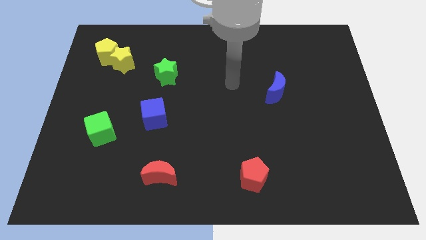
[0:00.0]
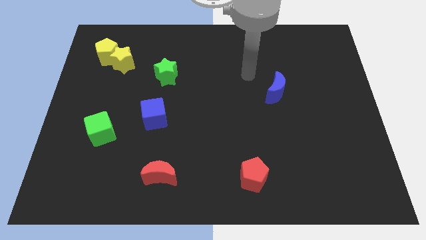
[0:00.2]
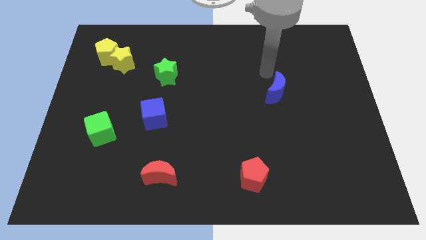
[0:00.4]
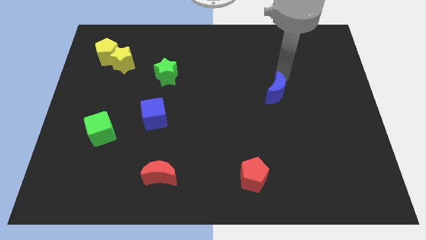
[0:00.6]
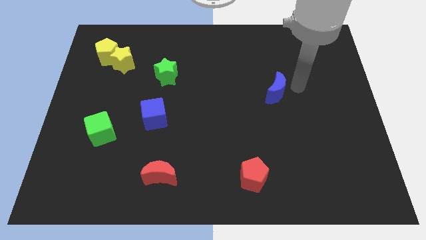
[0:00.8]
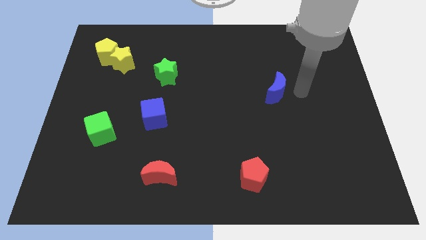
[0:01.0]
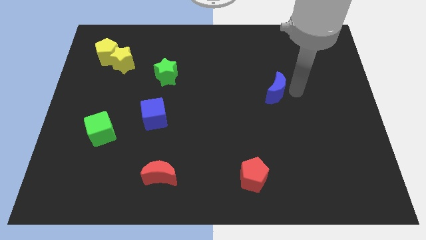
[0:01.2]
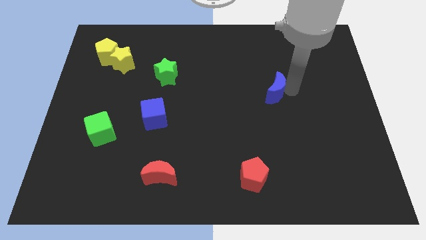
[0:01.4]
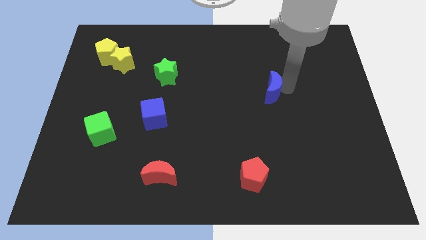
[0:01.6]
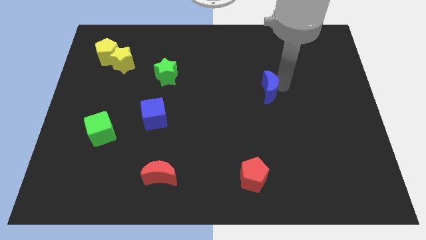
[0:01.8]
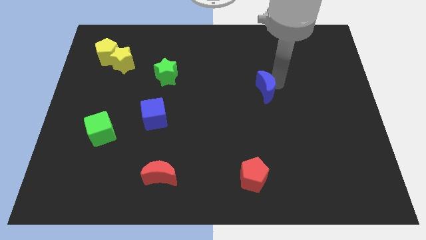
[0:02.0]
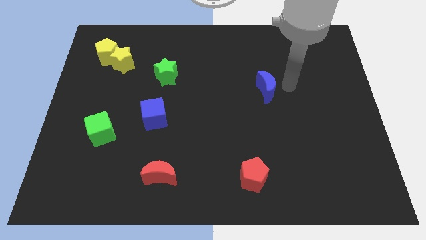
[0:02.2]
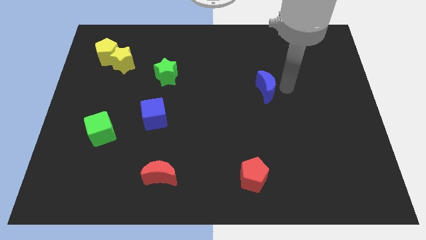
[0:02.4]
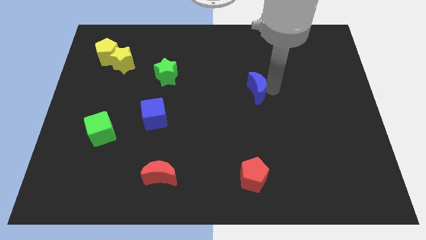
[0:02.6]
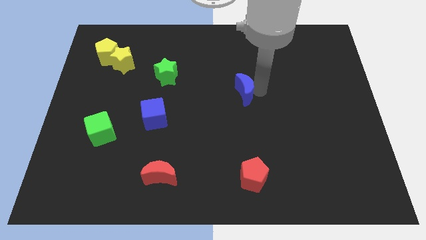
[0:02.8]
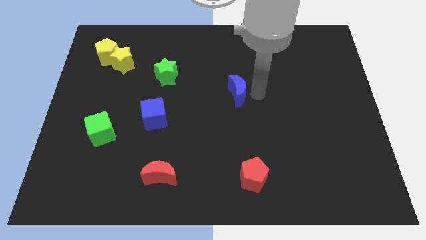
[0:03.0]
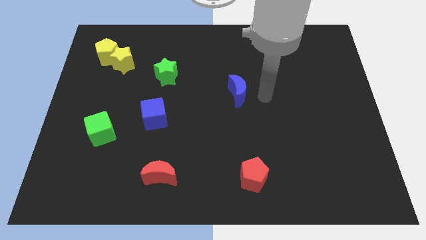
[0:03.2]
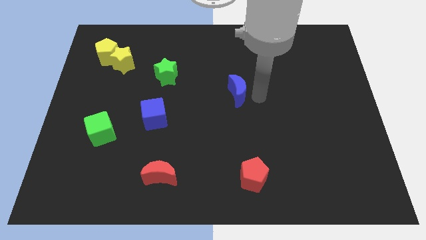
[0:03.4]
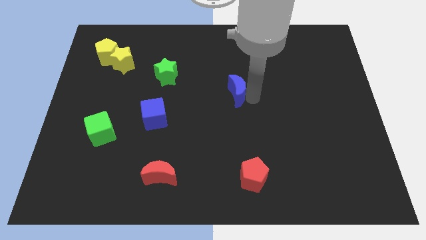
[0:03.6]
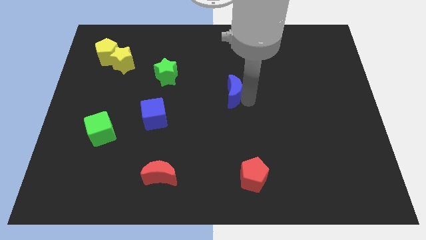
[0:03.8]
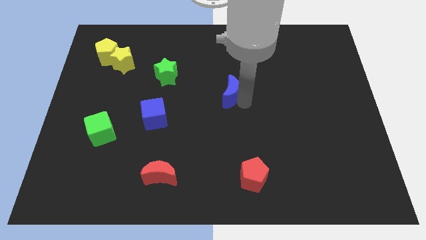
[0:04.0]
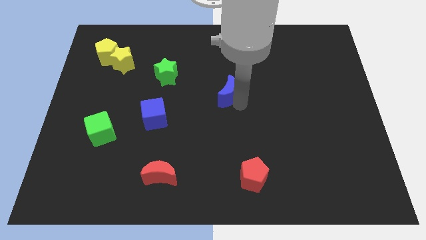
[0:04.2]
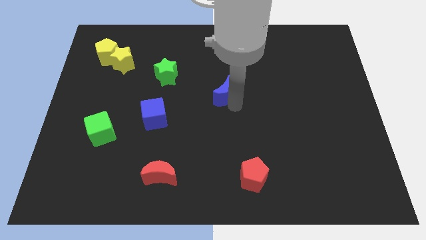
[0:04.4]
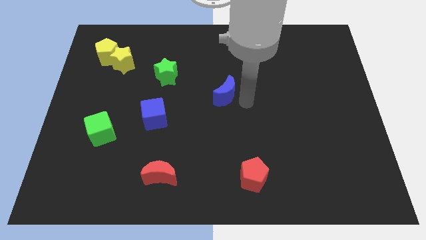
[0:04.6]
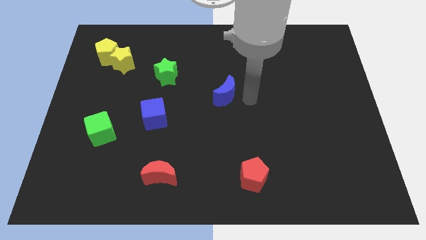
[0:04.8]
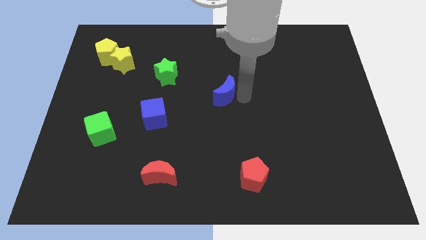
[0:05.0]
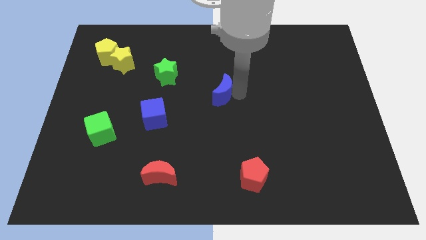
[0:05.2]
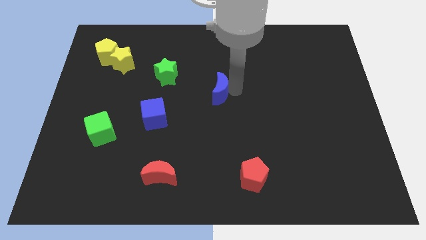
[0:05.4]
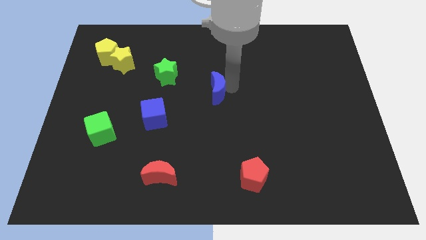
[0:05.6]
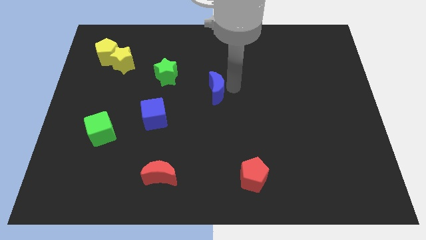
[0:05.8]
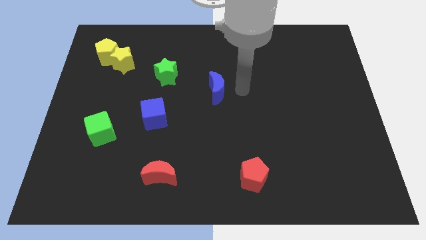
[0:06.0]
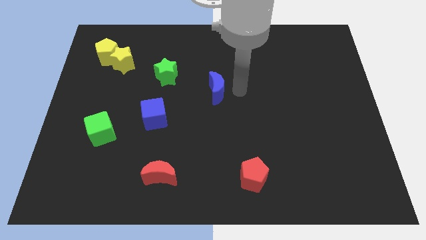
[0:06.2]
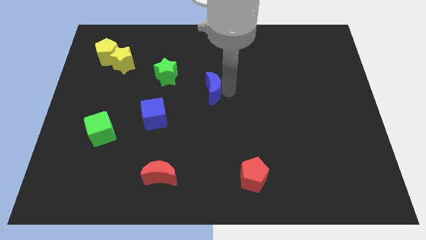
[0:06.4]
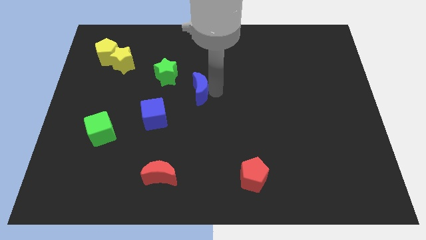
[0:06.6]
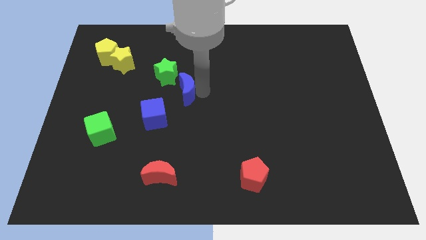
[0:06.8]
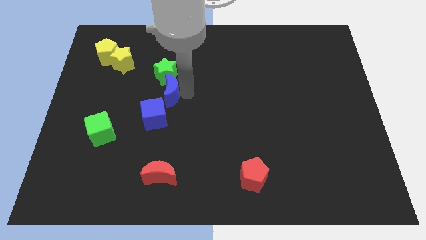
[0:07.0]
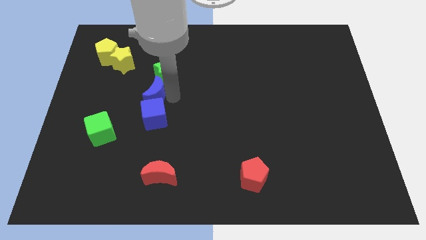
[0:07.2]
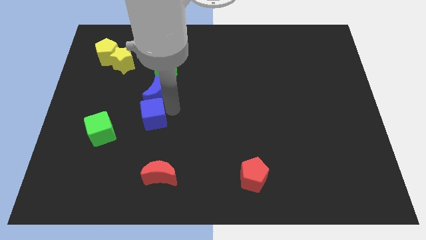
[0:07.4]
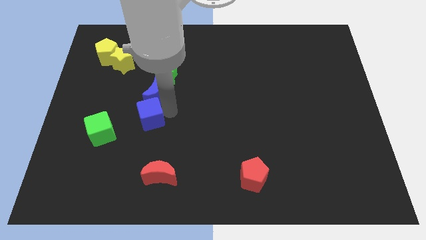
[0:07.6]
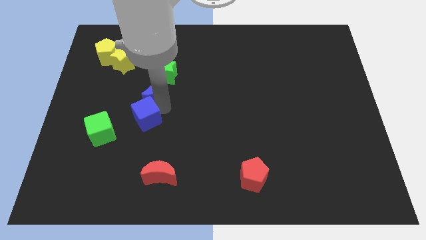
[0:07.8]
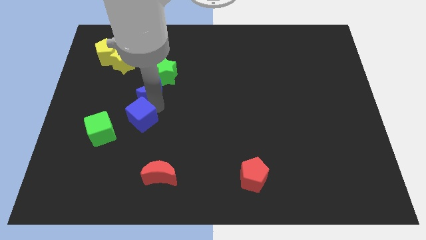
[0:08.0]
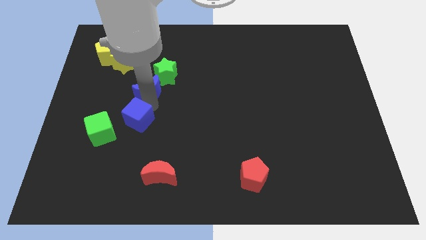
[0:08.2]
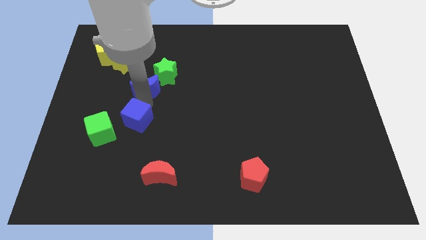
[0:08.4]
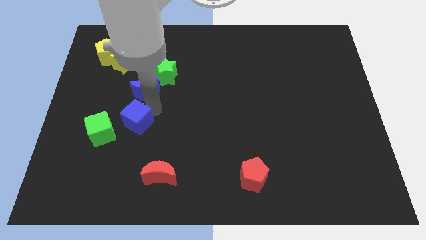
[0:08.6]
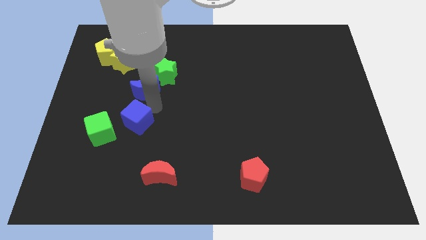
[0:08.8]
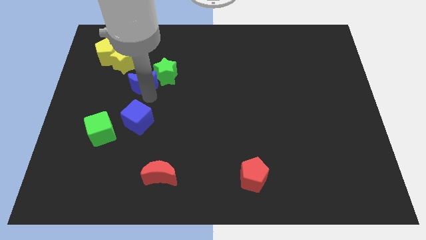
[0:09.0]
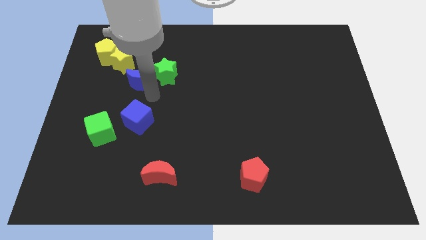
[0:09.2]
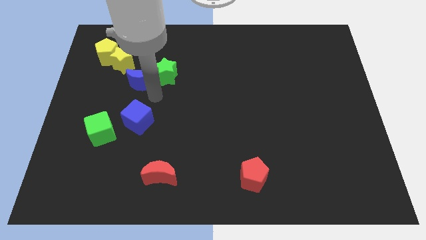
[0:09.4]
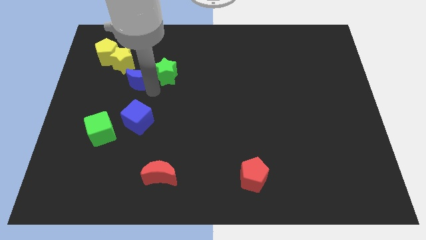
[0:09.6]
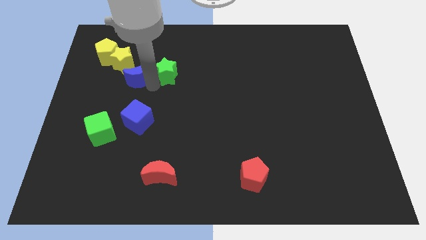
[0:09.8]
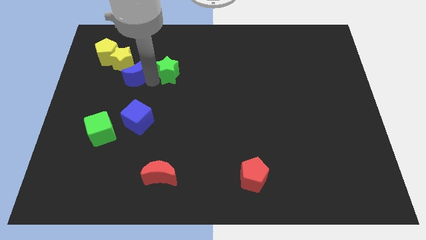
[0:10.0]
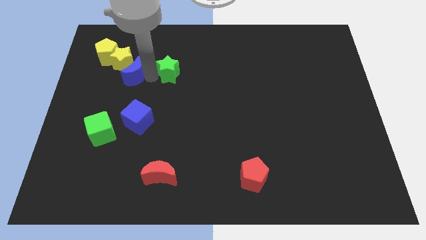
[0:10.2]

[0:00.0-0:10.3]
move the blue moon close to the yellow star

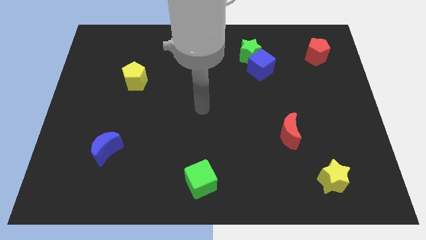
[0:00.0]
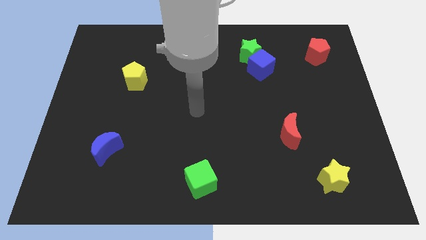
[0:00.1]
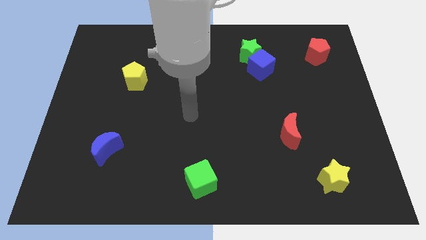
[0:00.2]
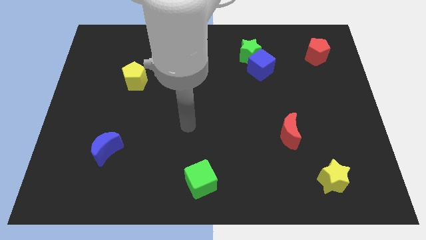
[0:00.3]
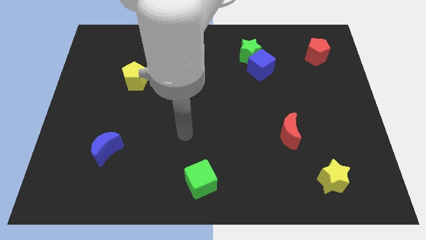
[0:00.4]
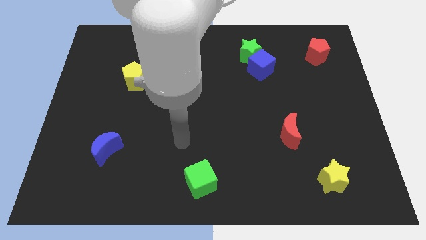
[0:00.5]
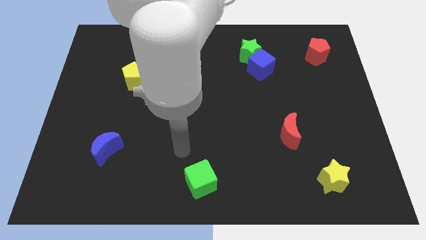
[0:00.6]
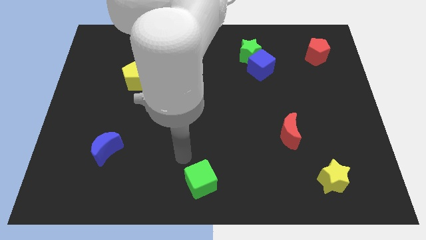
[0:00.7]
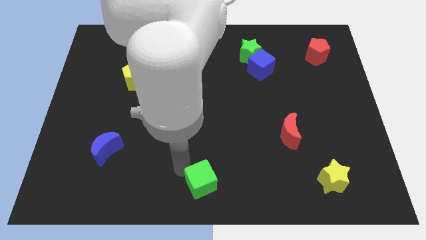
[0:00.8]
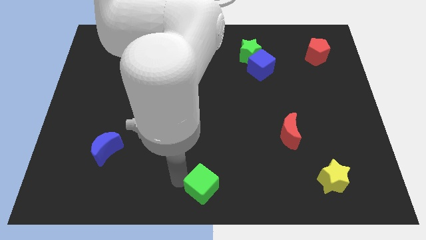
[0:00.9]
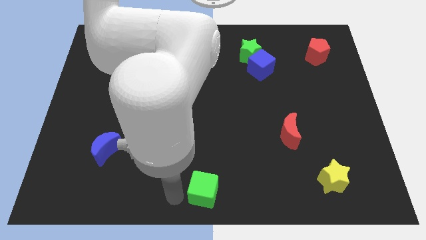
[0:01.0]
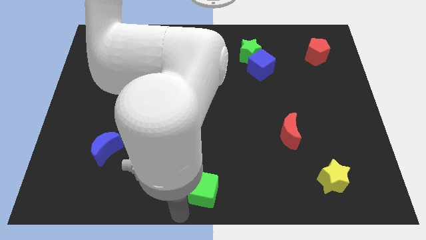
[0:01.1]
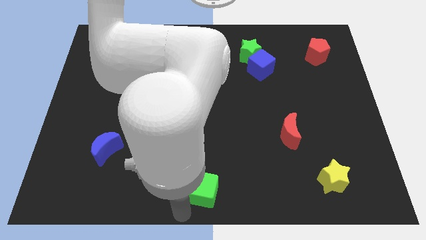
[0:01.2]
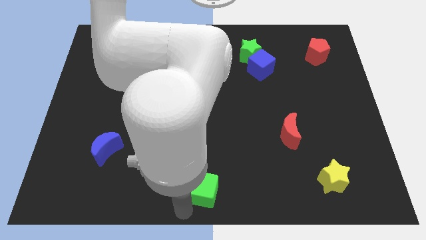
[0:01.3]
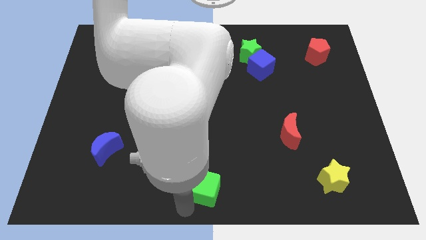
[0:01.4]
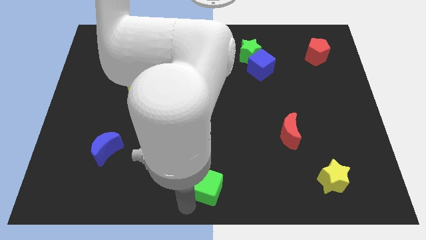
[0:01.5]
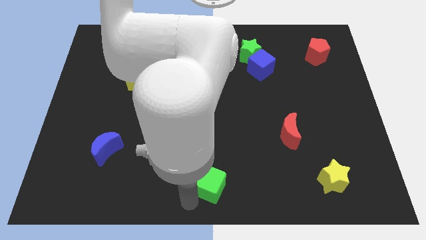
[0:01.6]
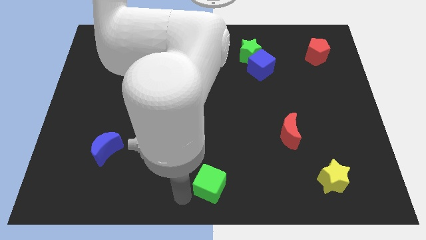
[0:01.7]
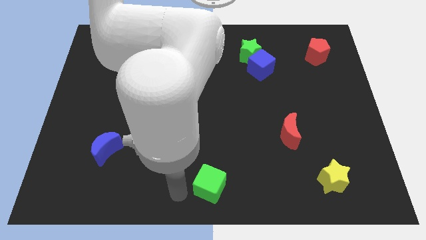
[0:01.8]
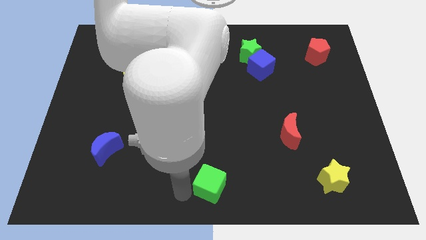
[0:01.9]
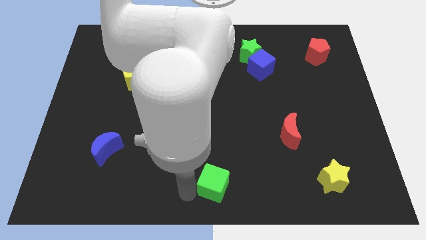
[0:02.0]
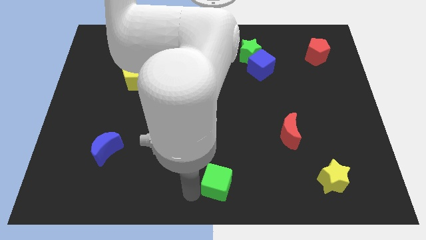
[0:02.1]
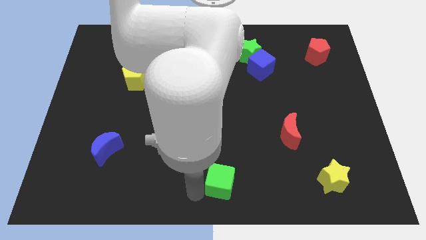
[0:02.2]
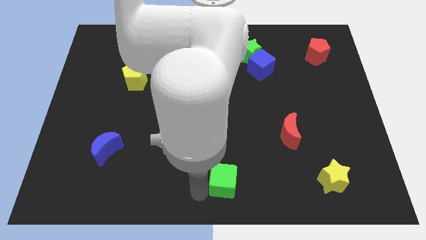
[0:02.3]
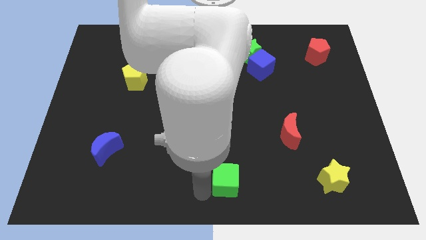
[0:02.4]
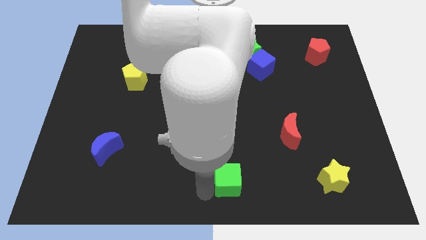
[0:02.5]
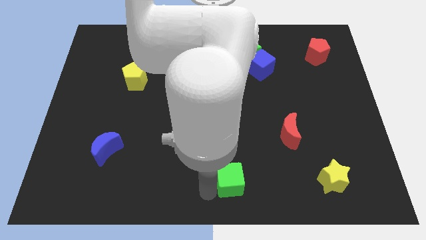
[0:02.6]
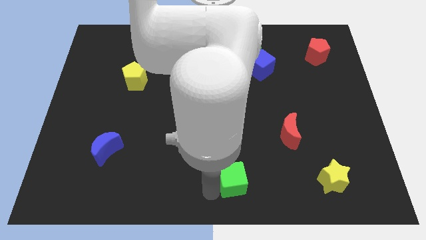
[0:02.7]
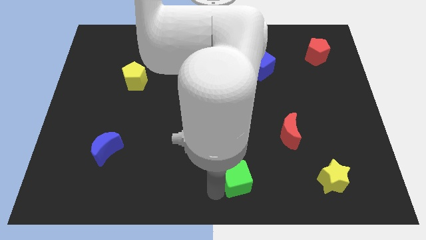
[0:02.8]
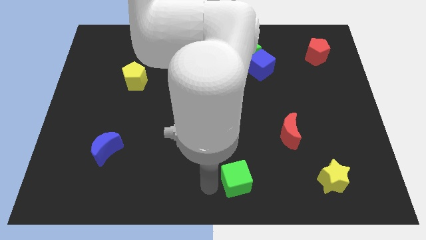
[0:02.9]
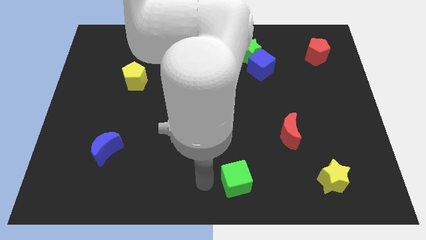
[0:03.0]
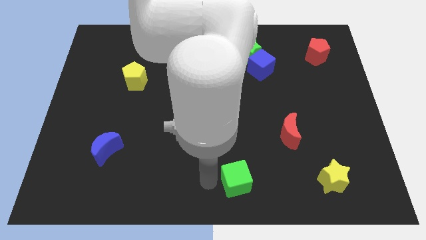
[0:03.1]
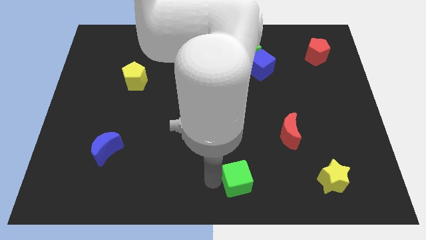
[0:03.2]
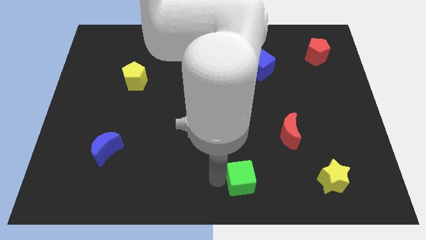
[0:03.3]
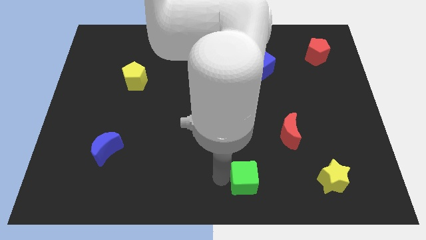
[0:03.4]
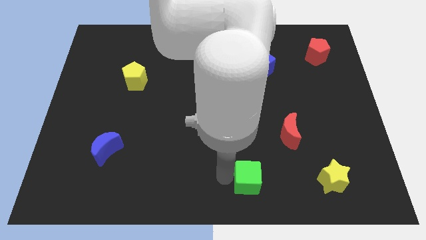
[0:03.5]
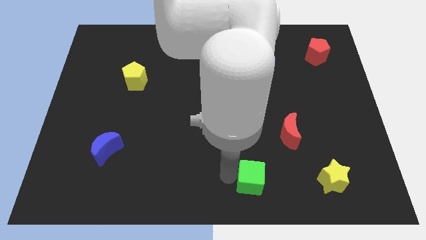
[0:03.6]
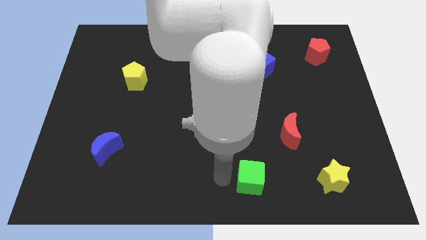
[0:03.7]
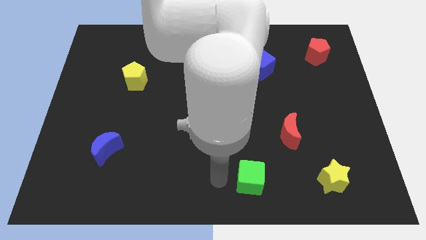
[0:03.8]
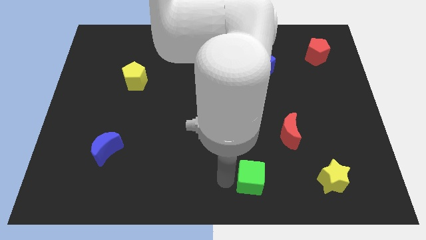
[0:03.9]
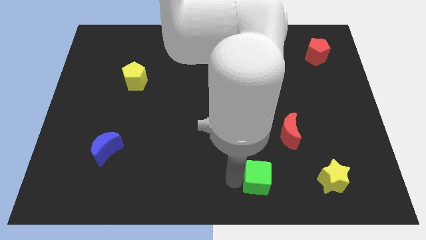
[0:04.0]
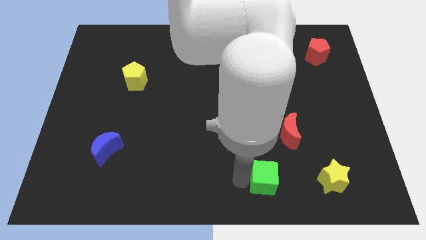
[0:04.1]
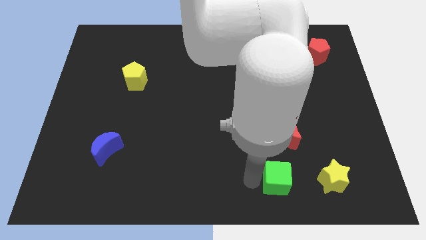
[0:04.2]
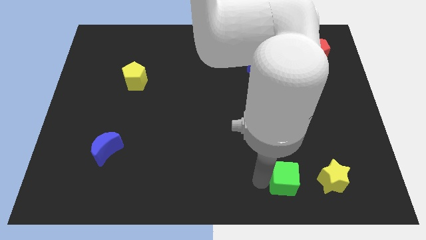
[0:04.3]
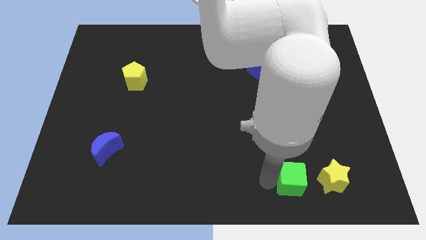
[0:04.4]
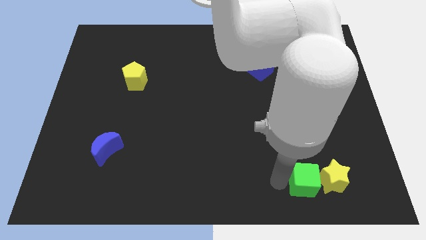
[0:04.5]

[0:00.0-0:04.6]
push the green cube next to the yellow star
